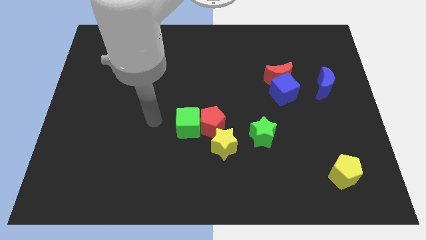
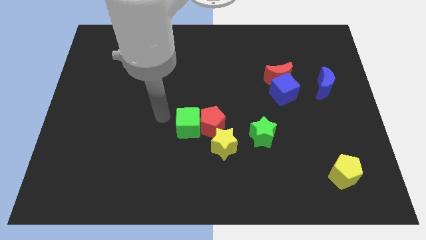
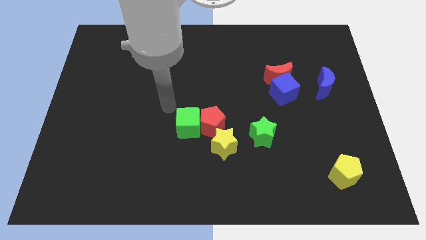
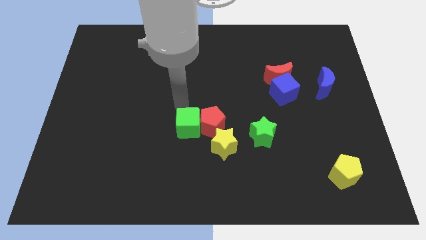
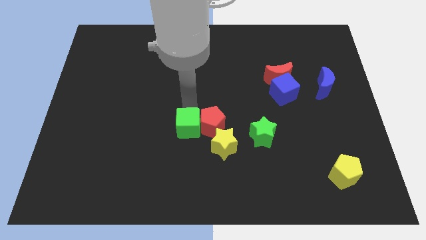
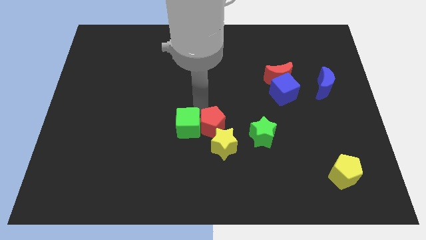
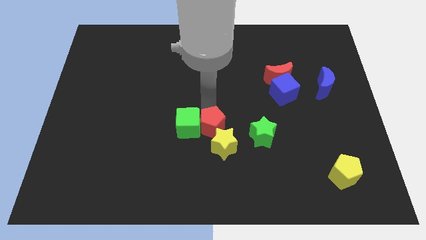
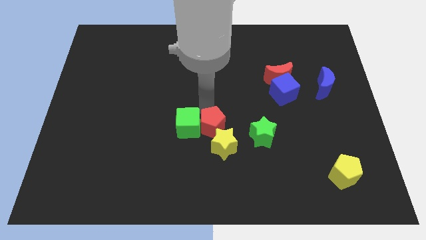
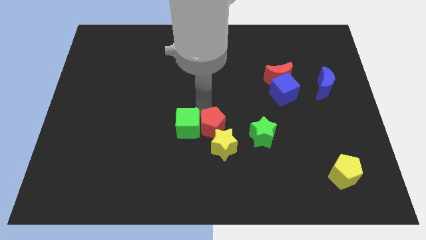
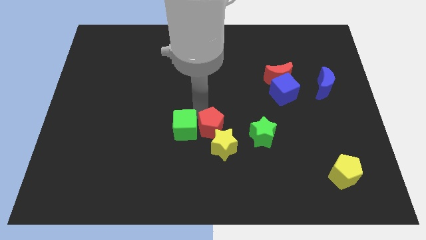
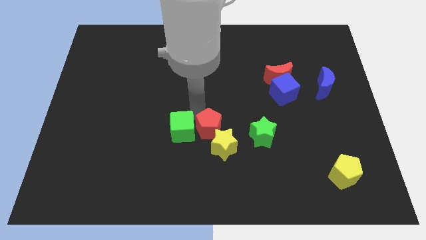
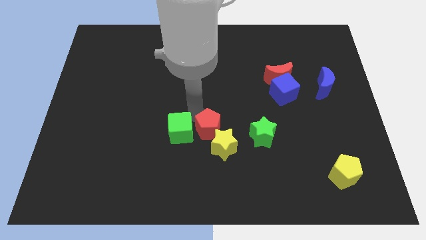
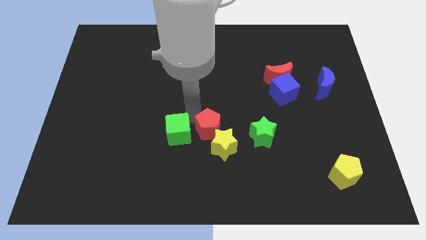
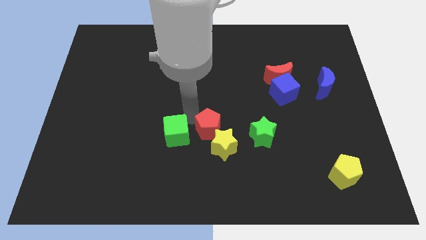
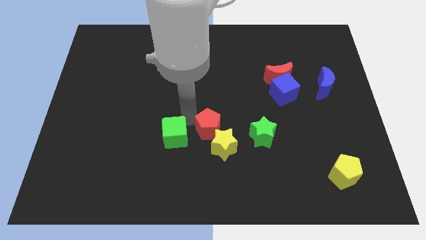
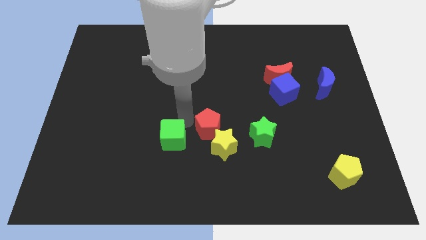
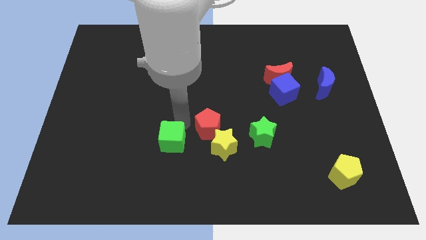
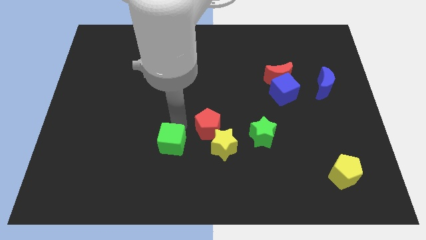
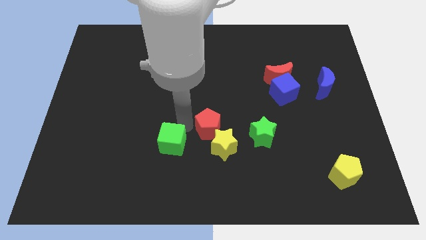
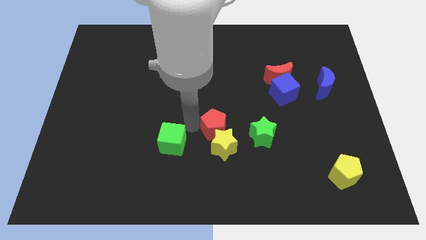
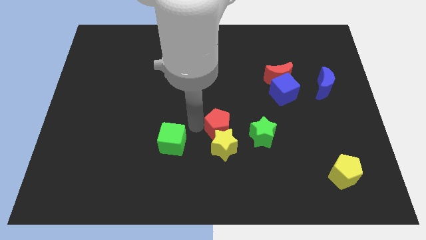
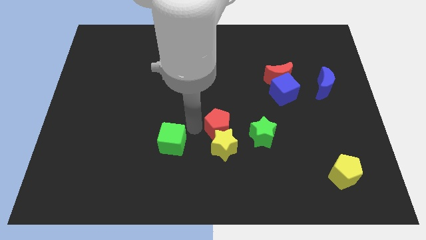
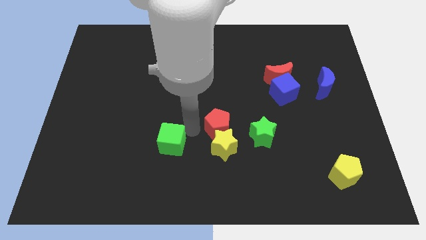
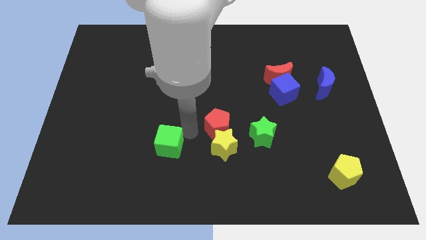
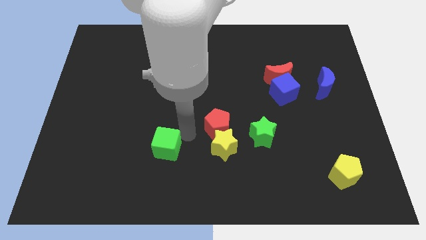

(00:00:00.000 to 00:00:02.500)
slightly move the green cube down and left

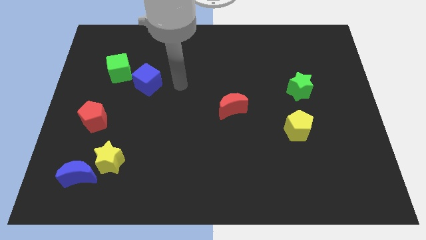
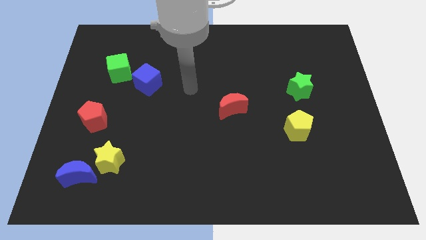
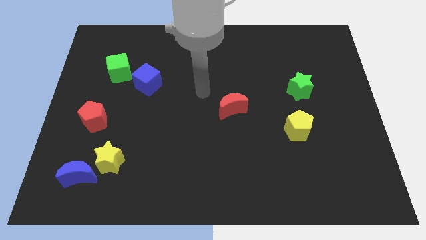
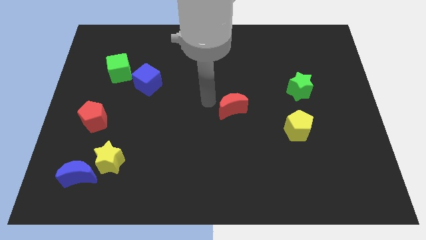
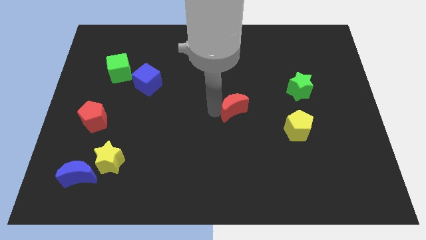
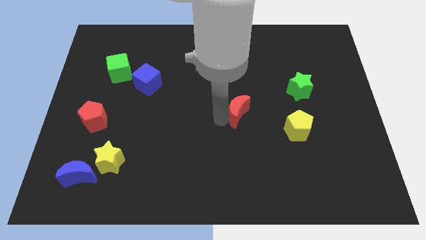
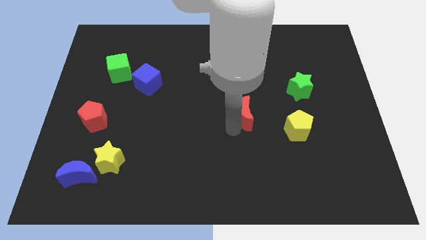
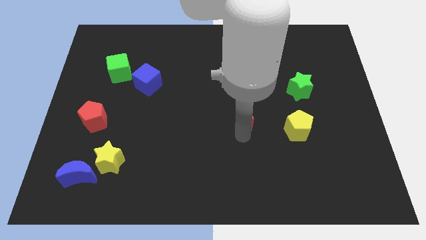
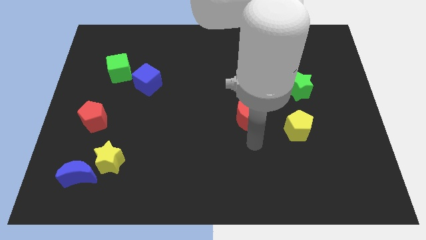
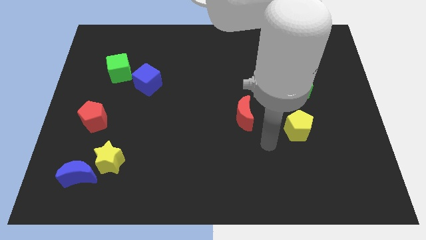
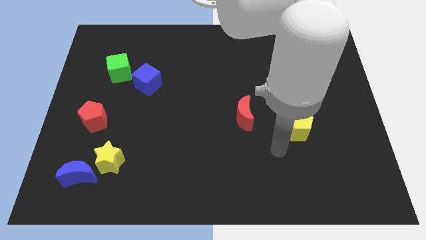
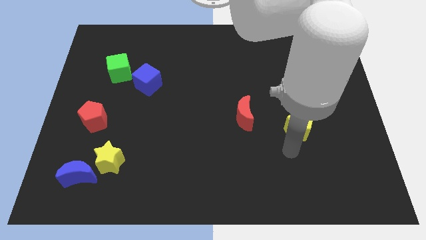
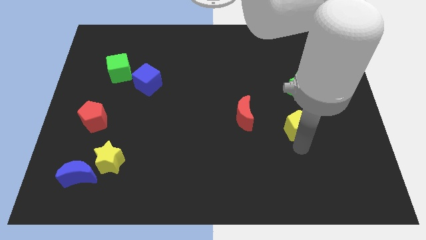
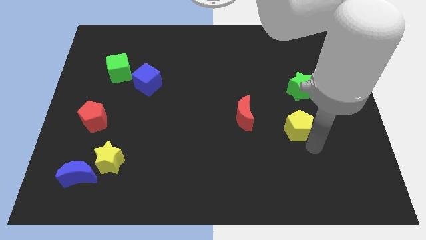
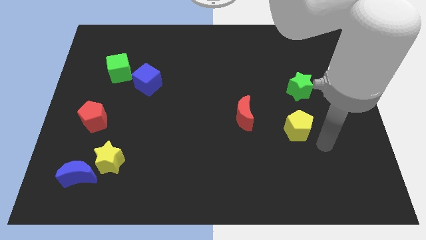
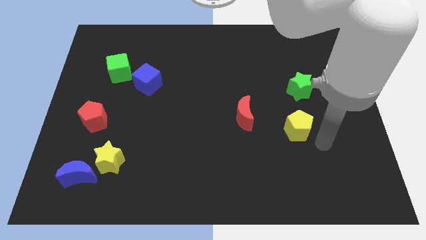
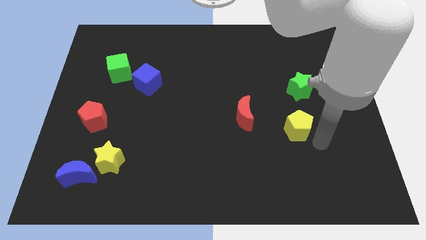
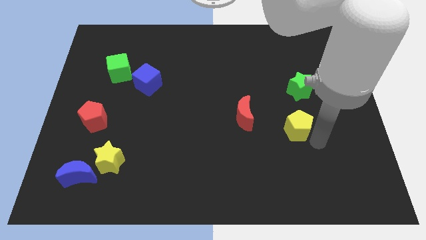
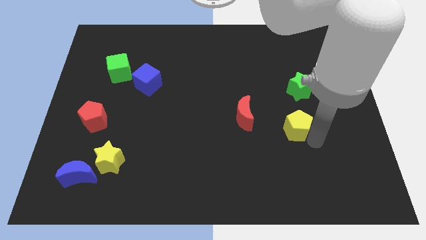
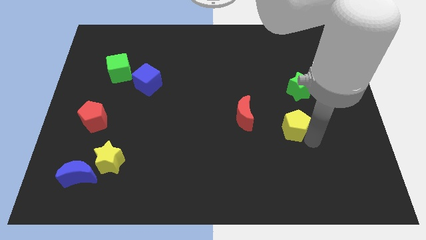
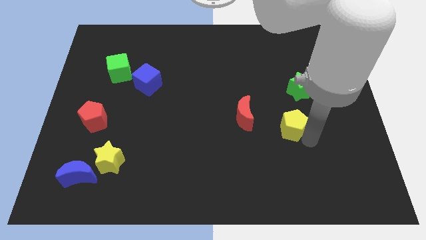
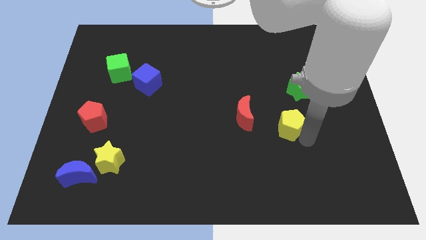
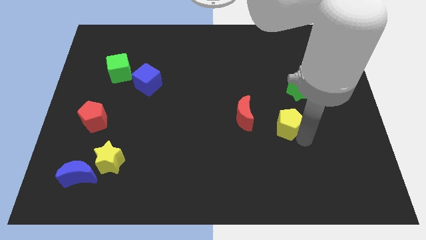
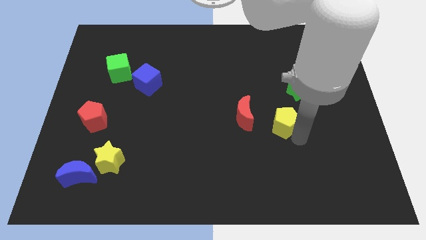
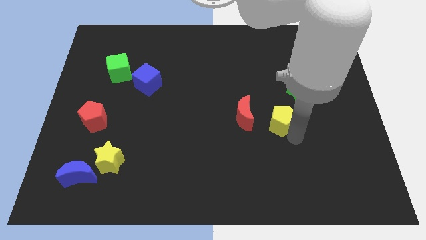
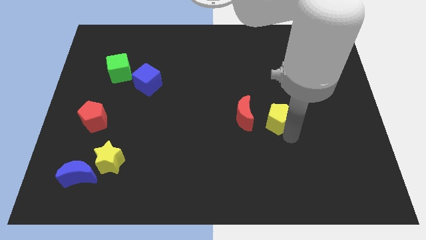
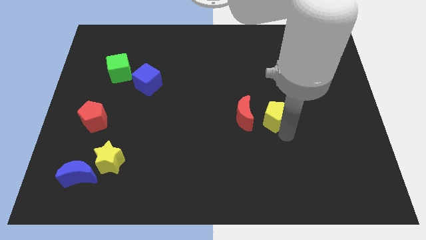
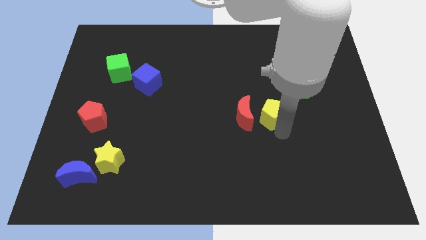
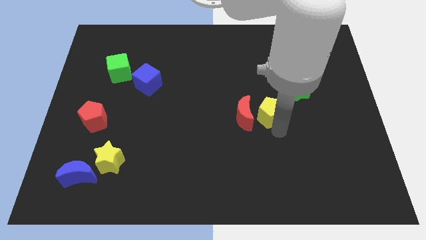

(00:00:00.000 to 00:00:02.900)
slightly move the yellow pentagon up and left

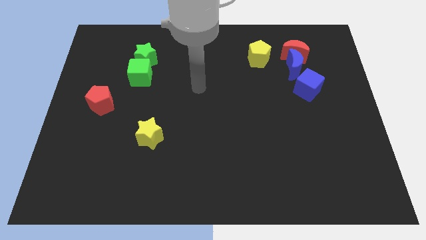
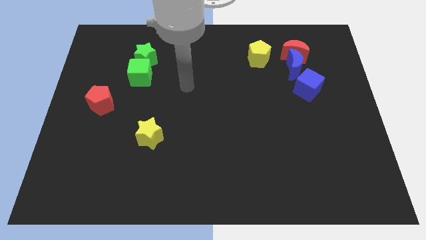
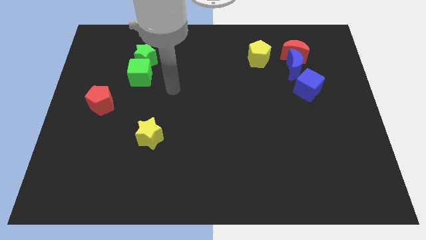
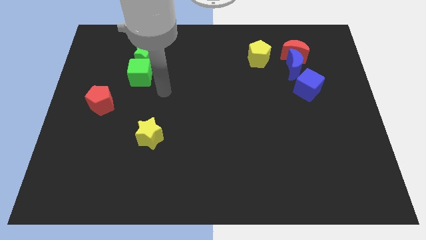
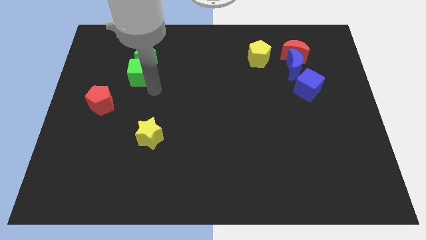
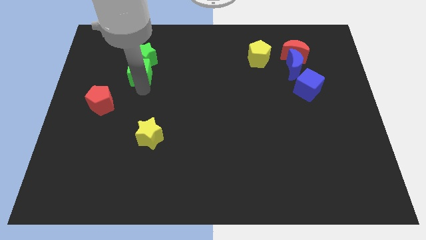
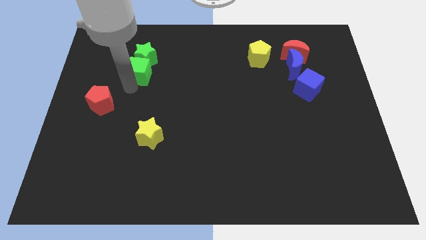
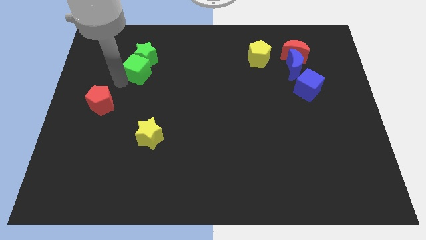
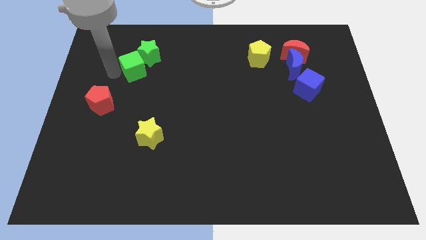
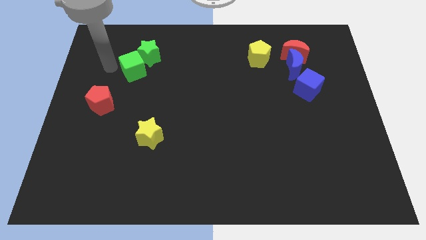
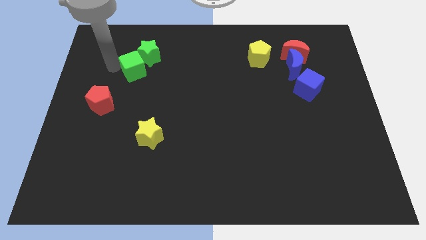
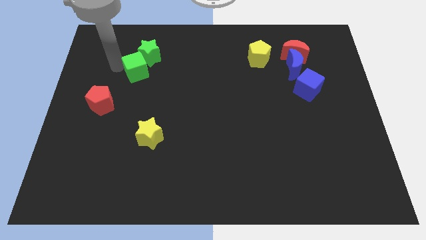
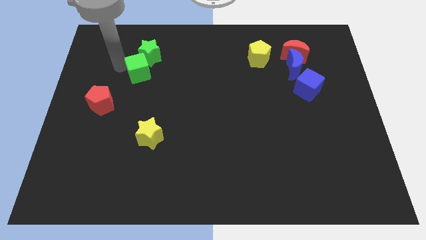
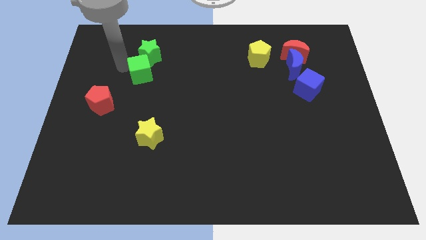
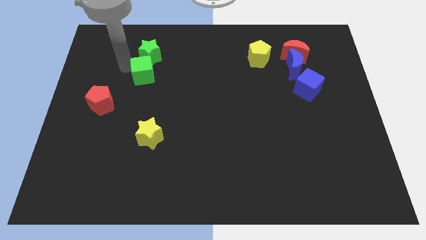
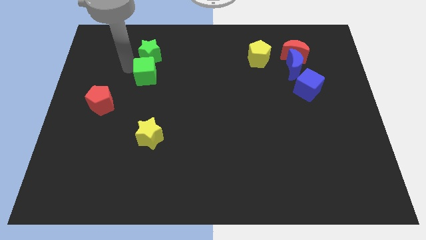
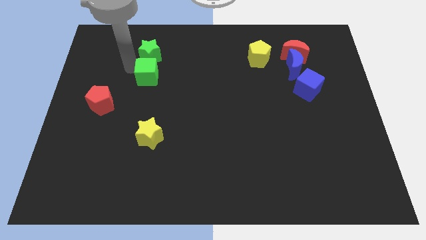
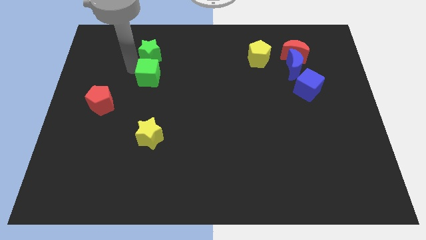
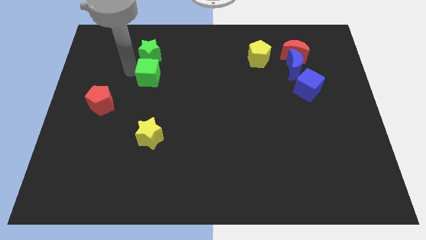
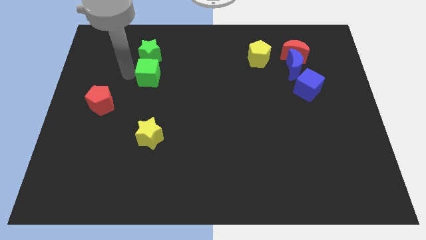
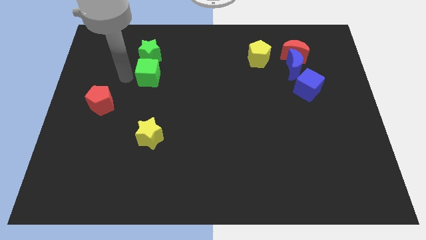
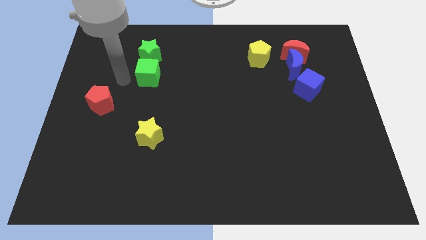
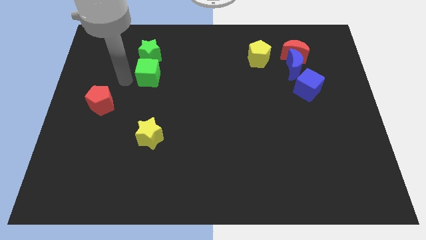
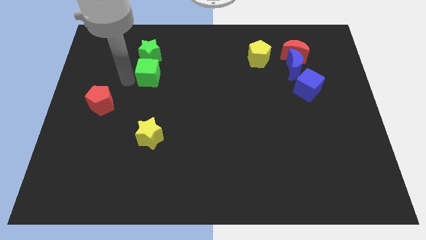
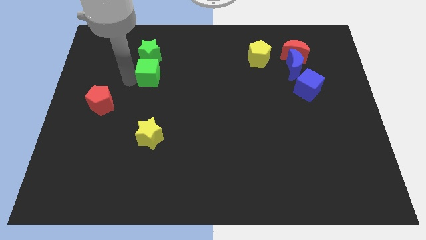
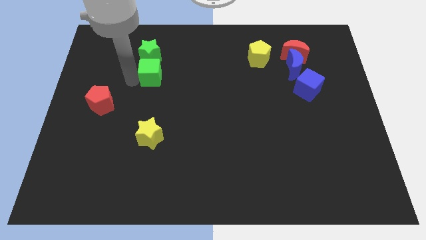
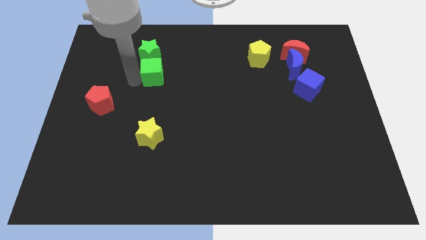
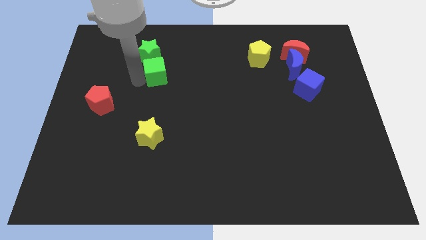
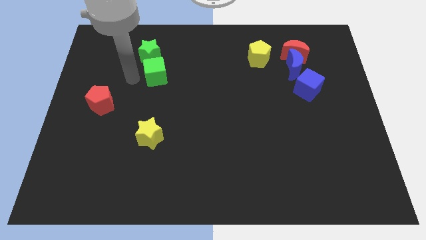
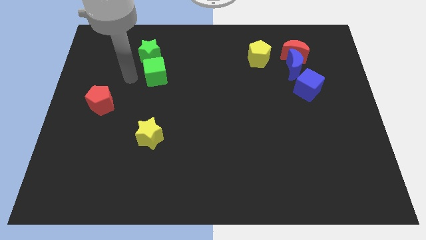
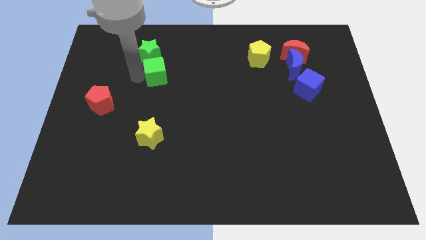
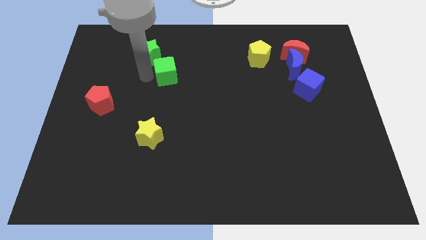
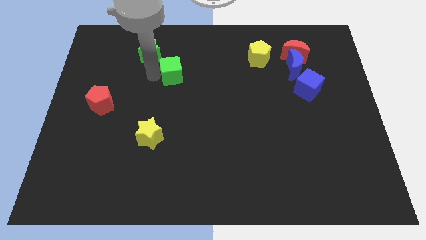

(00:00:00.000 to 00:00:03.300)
push the green cube a little to the right
